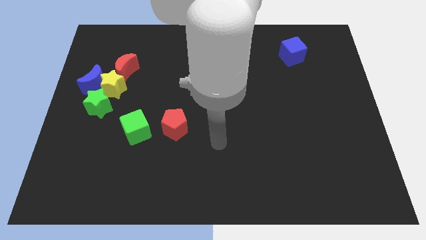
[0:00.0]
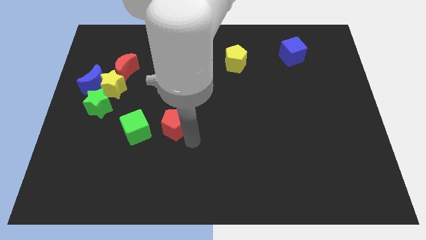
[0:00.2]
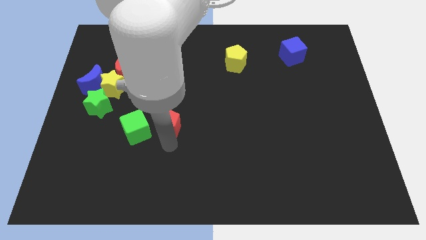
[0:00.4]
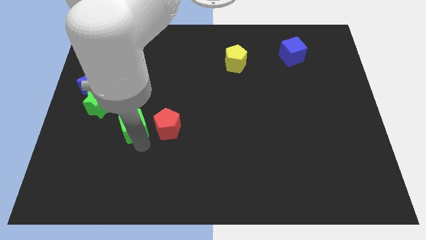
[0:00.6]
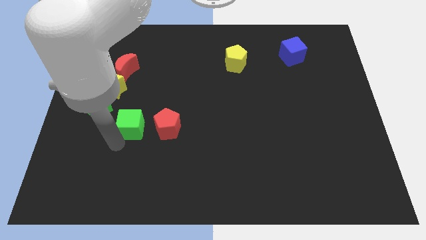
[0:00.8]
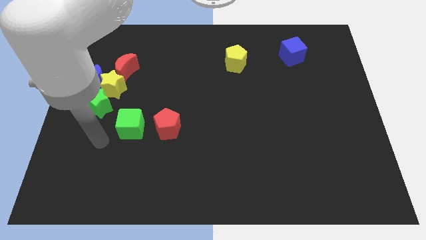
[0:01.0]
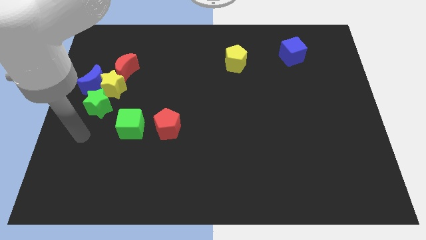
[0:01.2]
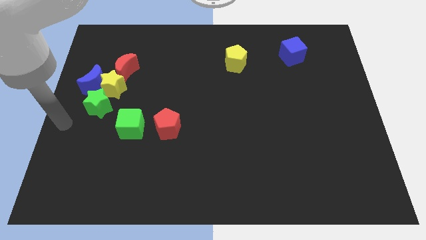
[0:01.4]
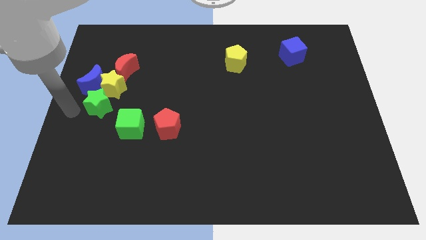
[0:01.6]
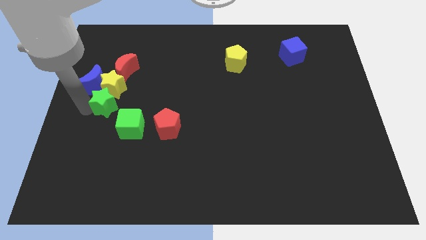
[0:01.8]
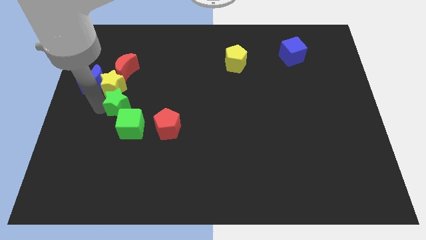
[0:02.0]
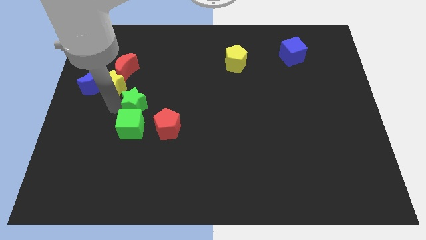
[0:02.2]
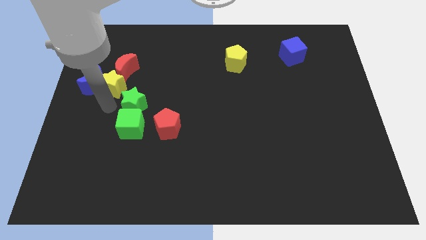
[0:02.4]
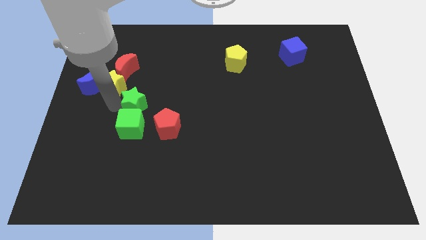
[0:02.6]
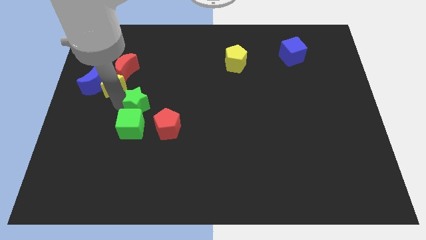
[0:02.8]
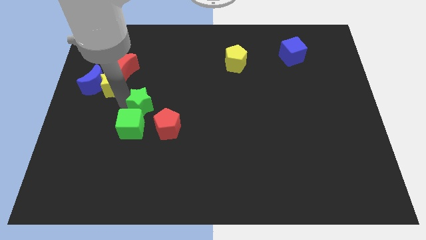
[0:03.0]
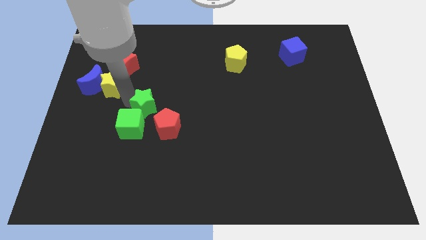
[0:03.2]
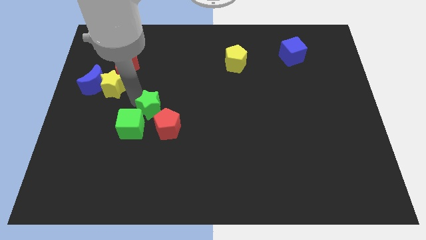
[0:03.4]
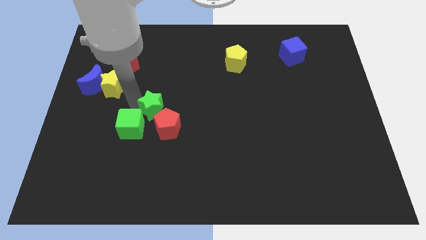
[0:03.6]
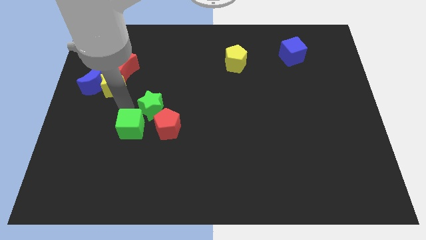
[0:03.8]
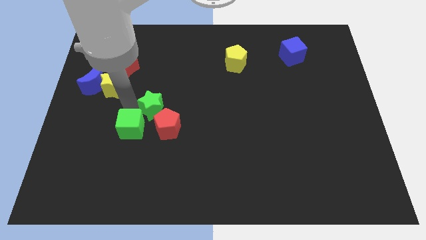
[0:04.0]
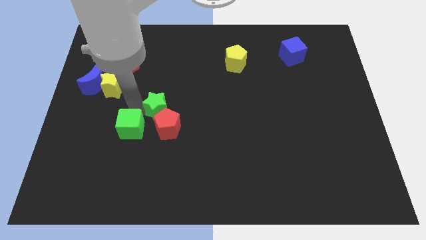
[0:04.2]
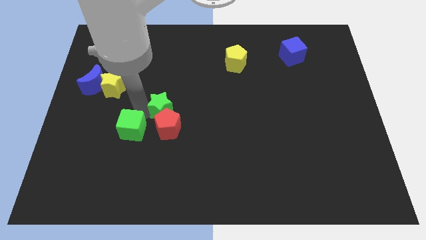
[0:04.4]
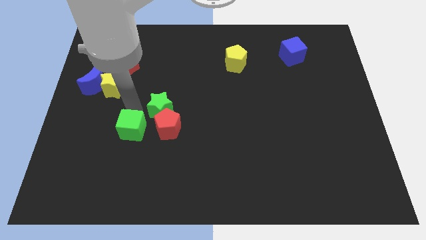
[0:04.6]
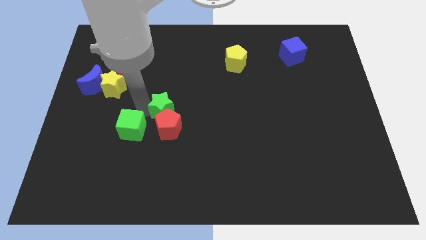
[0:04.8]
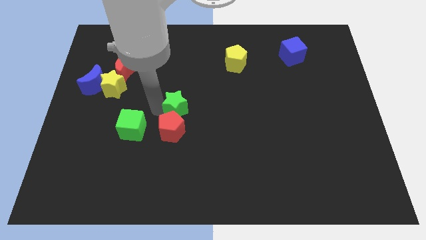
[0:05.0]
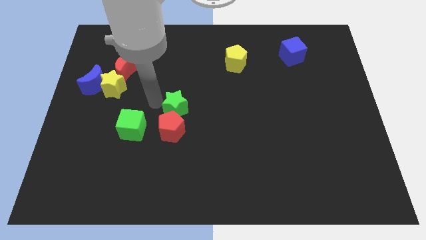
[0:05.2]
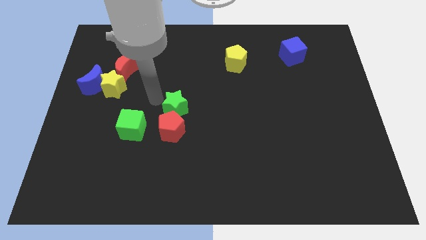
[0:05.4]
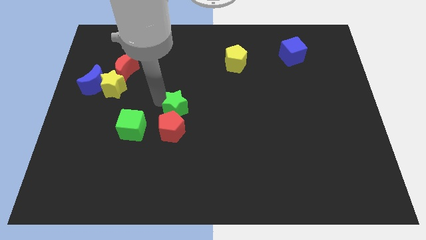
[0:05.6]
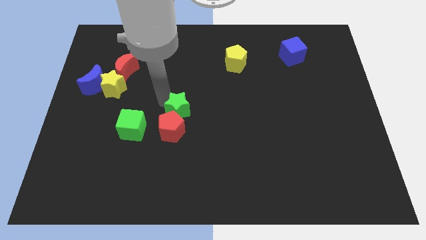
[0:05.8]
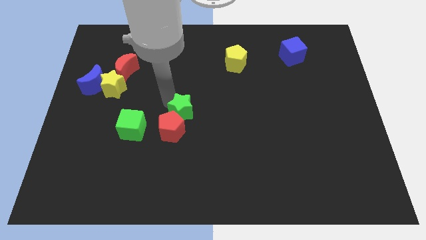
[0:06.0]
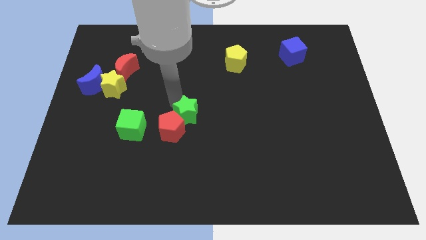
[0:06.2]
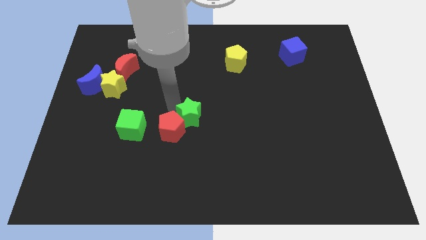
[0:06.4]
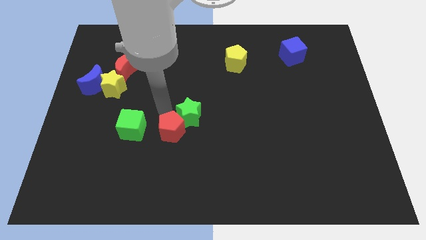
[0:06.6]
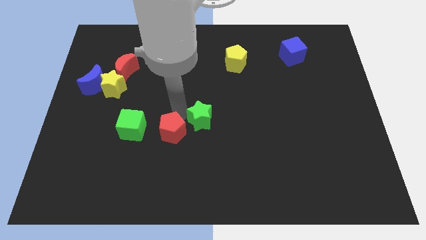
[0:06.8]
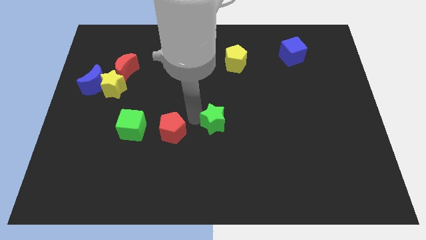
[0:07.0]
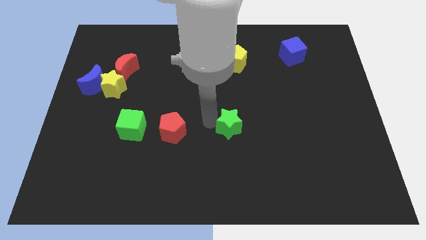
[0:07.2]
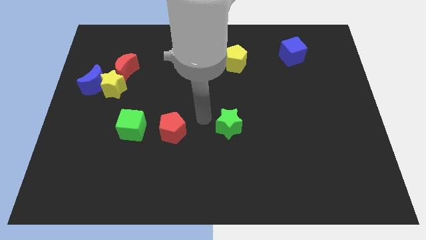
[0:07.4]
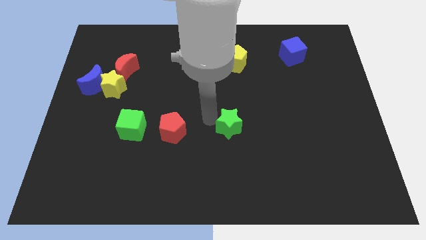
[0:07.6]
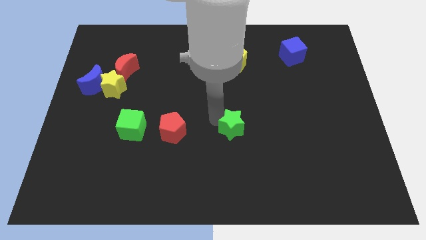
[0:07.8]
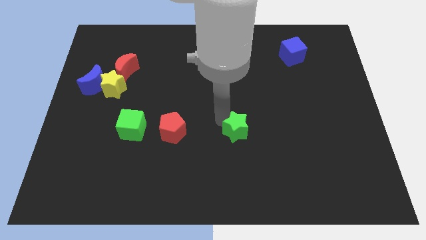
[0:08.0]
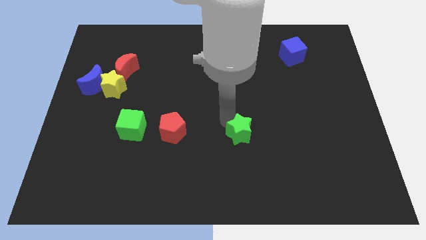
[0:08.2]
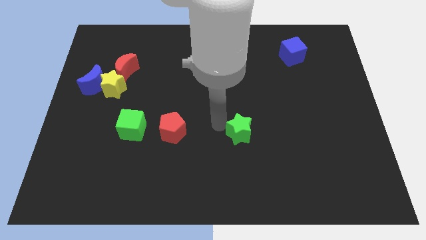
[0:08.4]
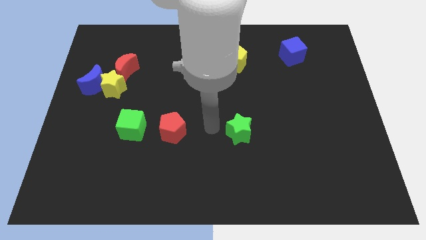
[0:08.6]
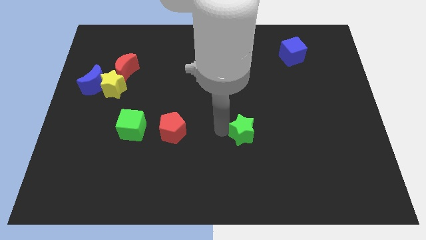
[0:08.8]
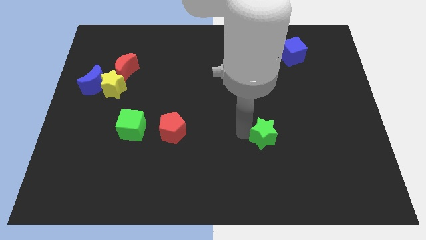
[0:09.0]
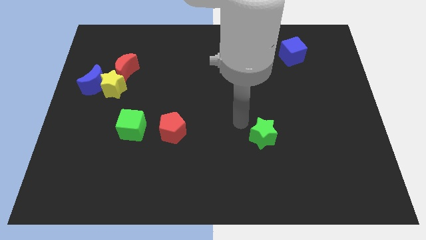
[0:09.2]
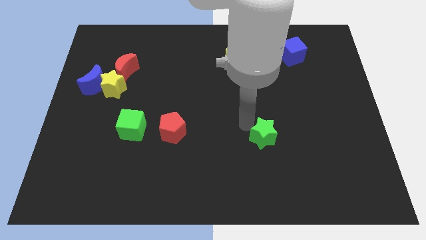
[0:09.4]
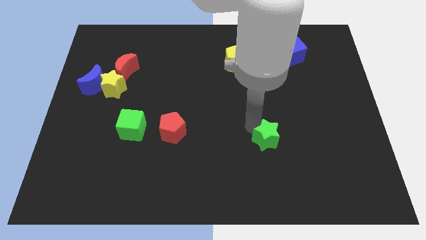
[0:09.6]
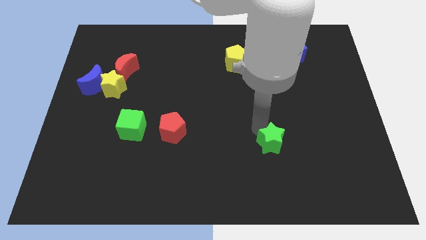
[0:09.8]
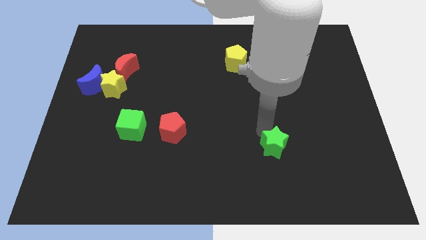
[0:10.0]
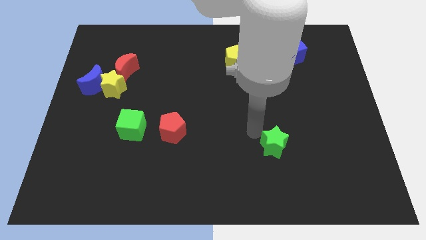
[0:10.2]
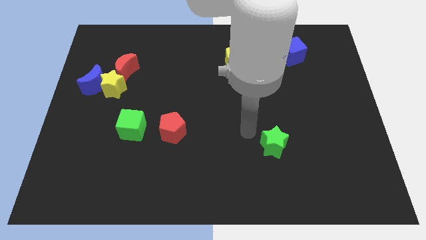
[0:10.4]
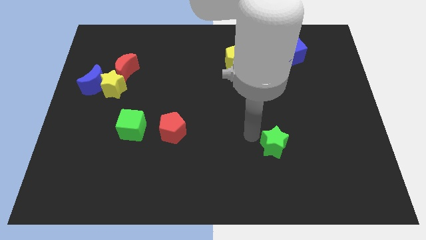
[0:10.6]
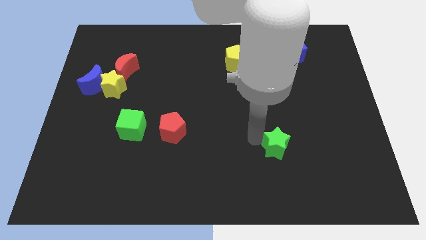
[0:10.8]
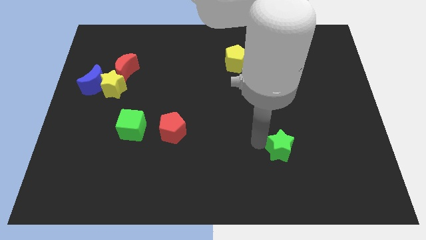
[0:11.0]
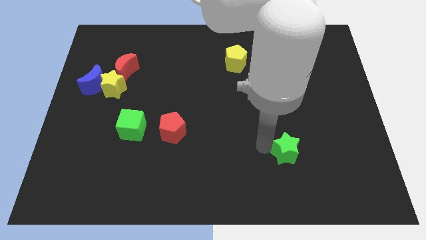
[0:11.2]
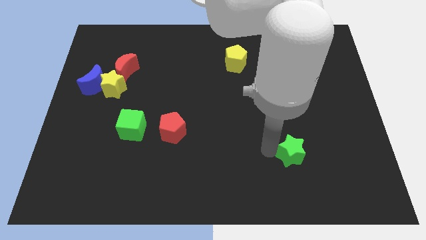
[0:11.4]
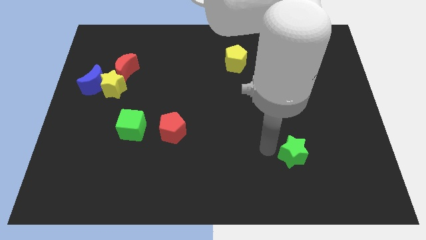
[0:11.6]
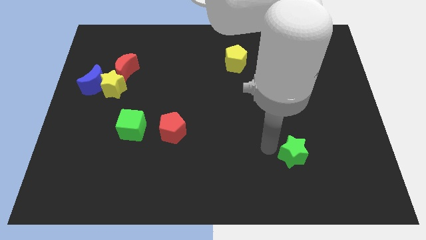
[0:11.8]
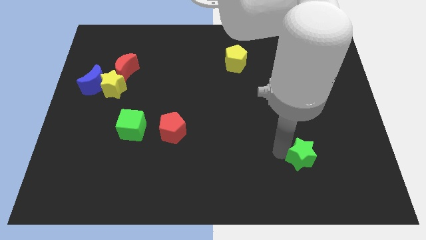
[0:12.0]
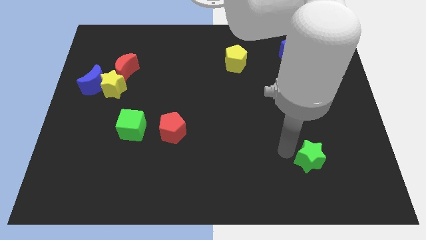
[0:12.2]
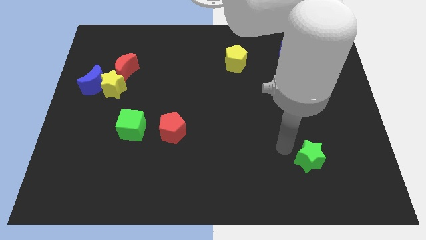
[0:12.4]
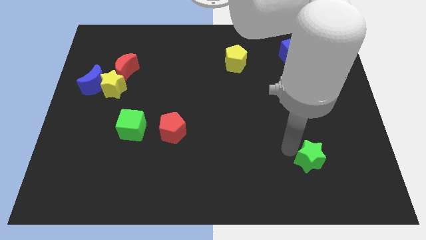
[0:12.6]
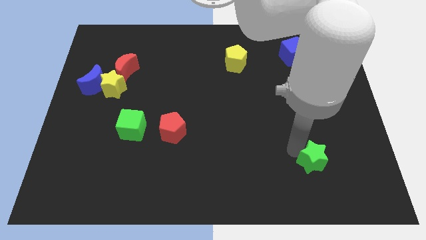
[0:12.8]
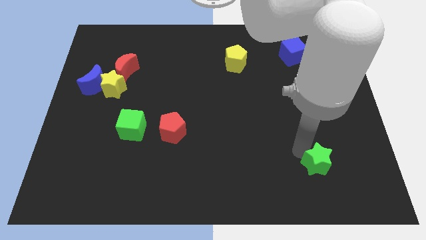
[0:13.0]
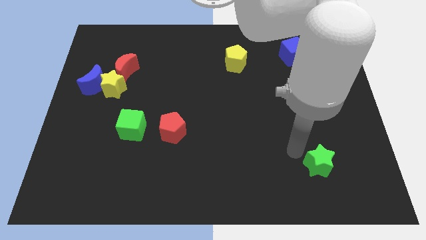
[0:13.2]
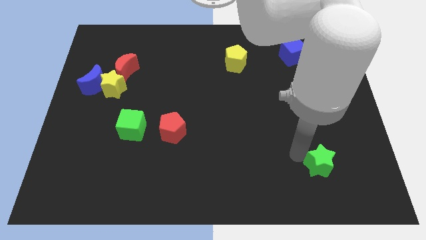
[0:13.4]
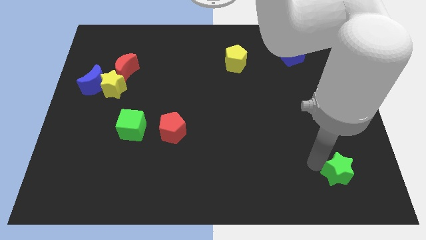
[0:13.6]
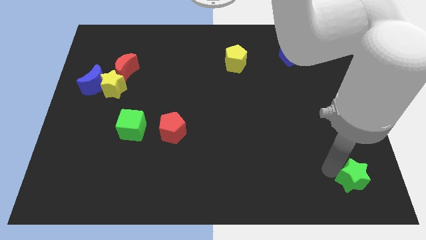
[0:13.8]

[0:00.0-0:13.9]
push the green star to the lower right corner
